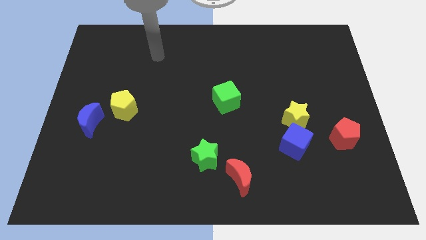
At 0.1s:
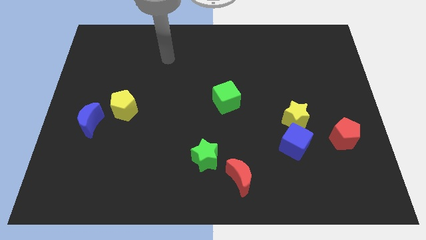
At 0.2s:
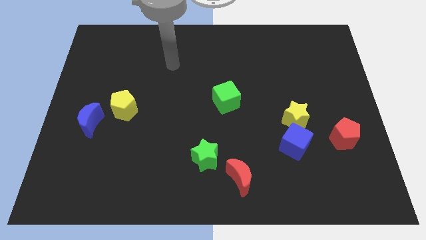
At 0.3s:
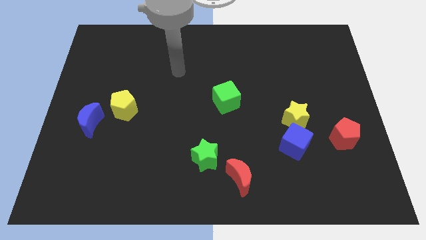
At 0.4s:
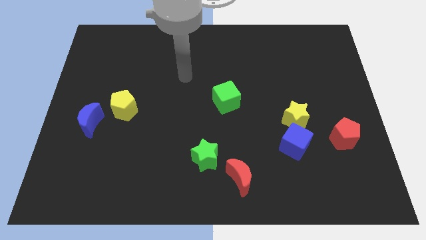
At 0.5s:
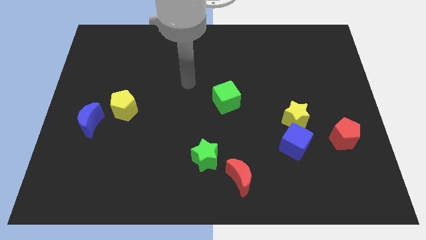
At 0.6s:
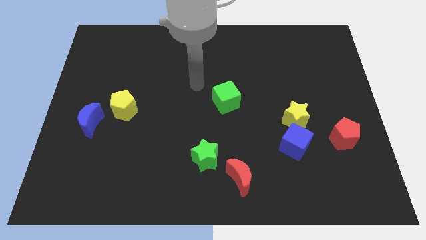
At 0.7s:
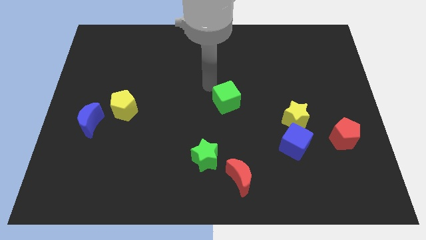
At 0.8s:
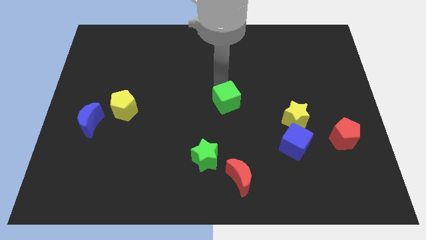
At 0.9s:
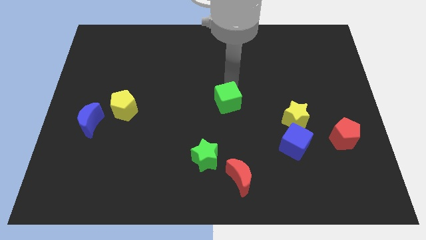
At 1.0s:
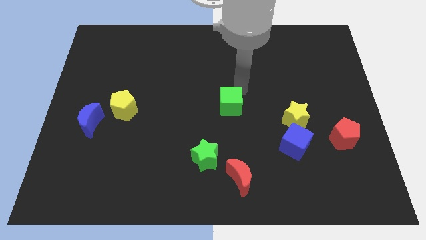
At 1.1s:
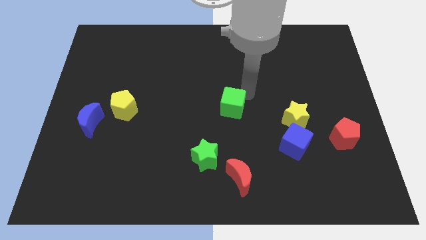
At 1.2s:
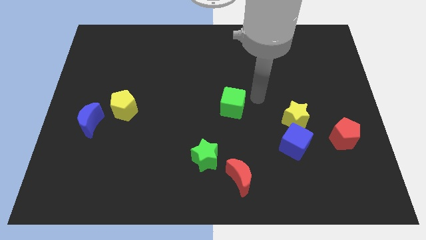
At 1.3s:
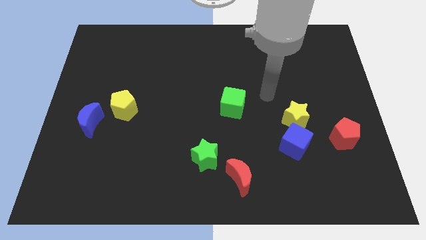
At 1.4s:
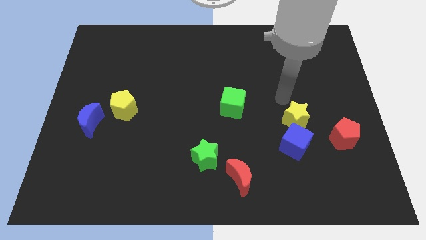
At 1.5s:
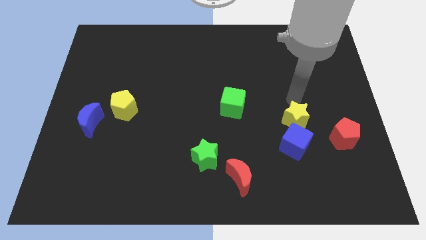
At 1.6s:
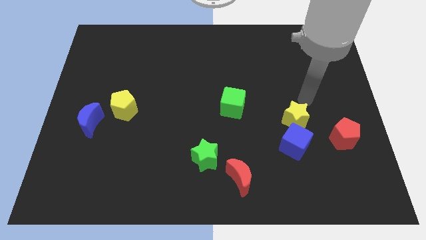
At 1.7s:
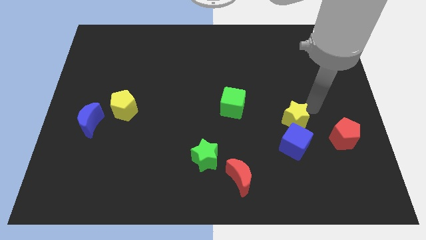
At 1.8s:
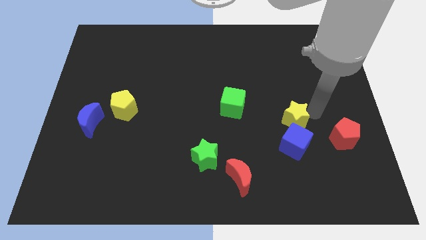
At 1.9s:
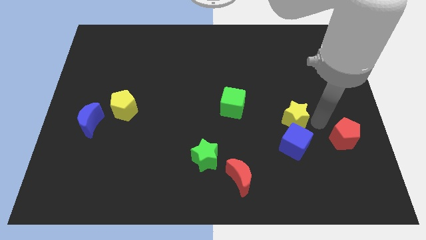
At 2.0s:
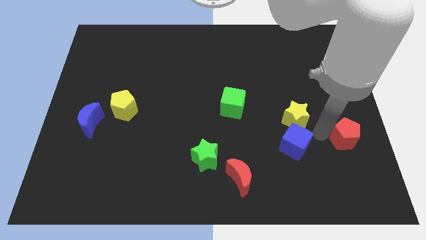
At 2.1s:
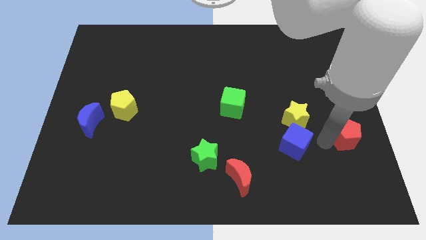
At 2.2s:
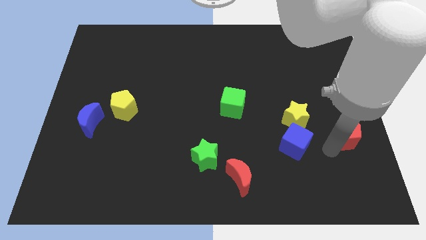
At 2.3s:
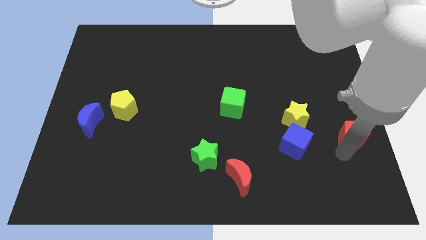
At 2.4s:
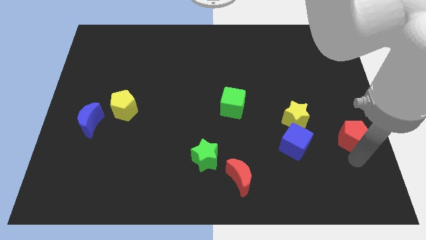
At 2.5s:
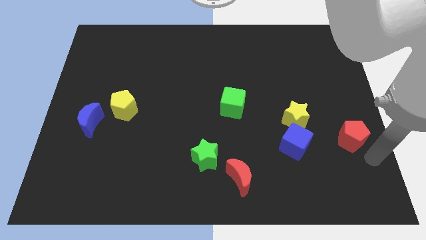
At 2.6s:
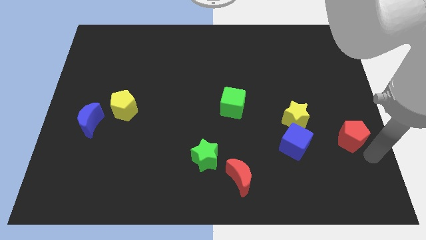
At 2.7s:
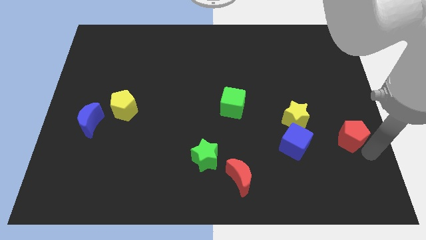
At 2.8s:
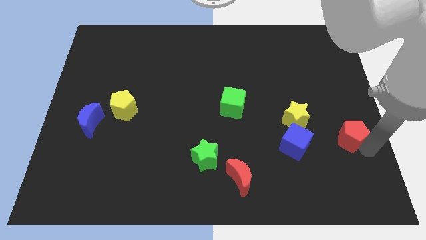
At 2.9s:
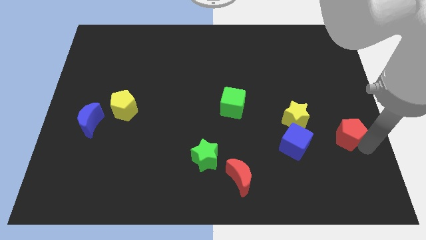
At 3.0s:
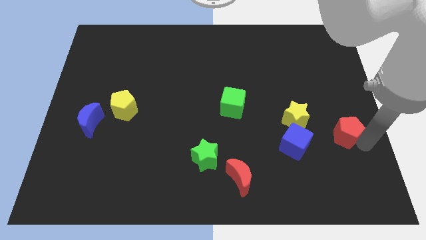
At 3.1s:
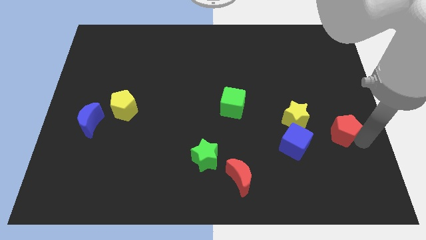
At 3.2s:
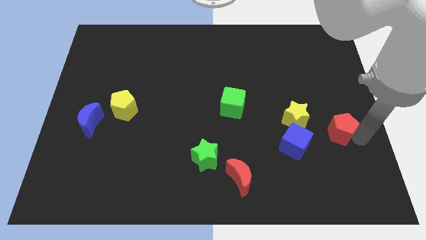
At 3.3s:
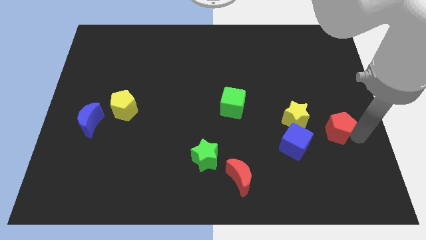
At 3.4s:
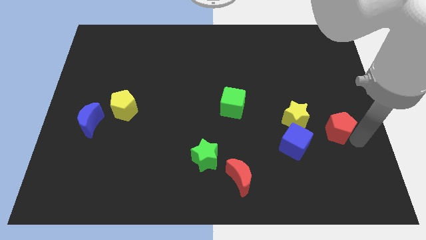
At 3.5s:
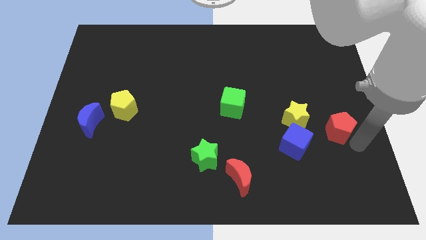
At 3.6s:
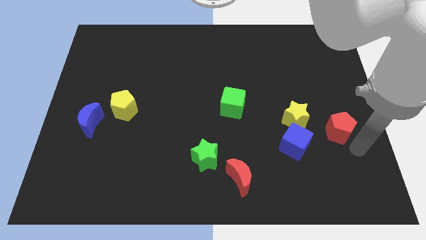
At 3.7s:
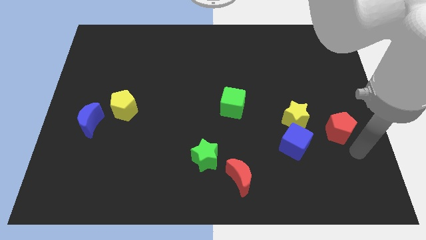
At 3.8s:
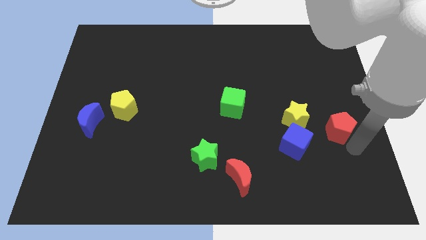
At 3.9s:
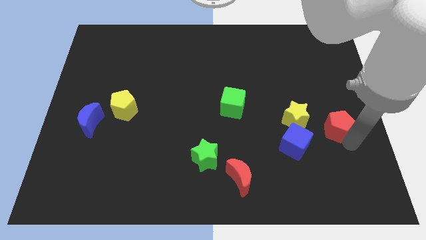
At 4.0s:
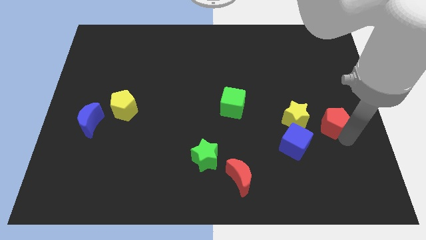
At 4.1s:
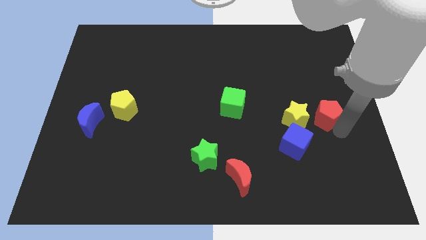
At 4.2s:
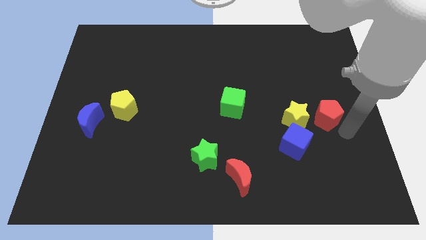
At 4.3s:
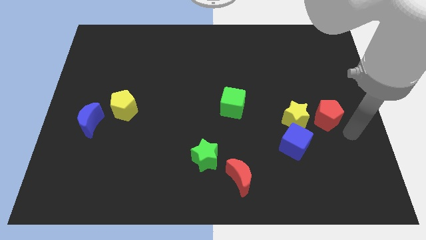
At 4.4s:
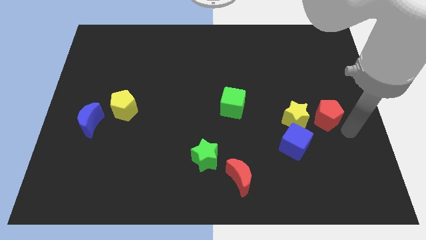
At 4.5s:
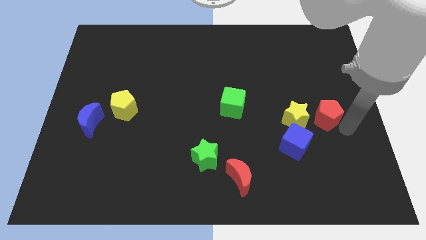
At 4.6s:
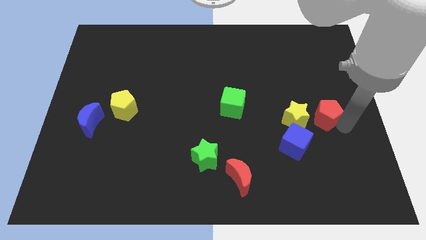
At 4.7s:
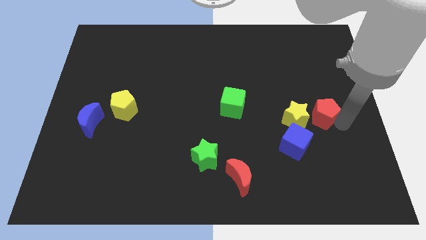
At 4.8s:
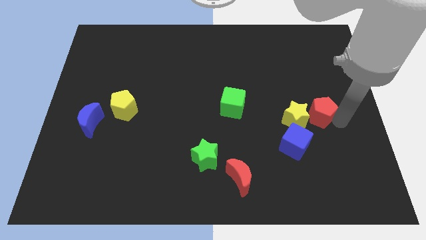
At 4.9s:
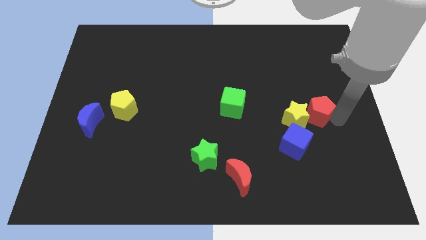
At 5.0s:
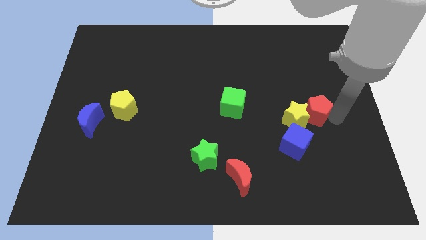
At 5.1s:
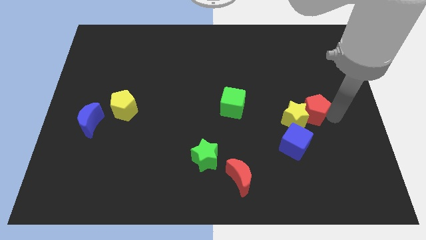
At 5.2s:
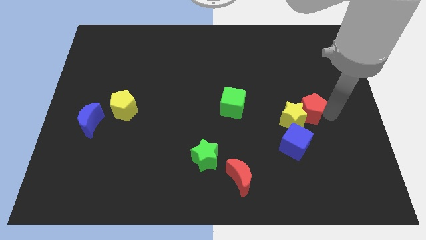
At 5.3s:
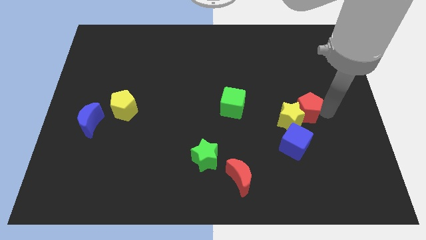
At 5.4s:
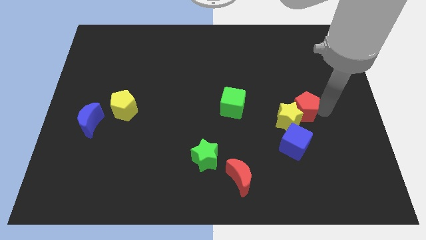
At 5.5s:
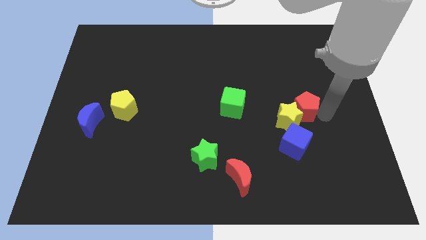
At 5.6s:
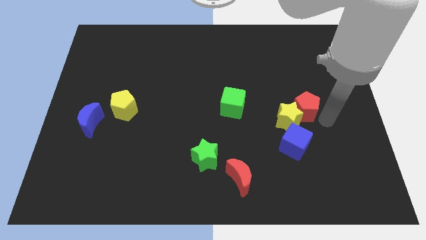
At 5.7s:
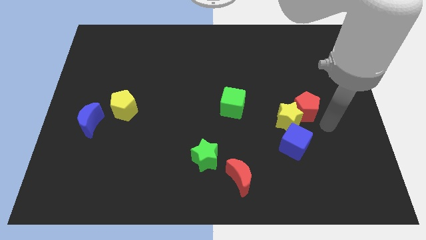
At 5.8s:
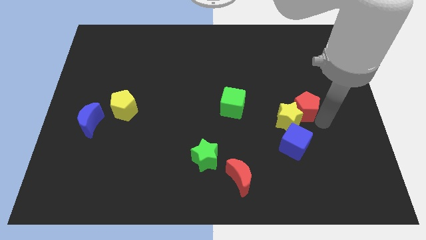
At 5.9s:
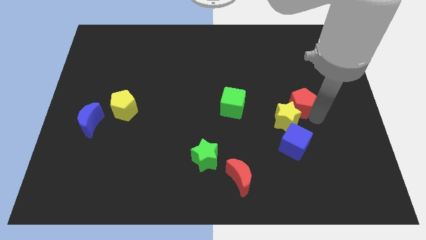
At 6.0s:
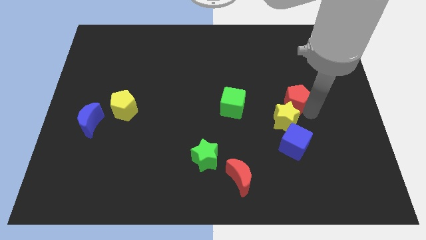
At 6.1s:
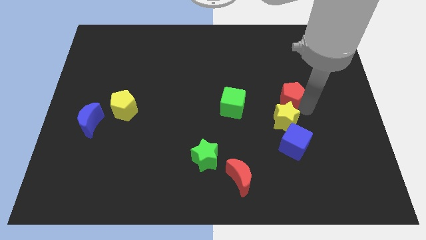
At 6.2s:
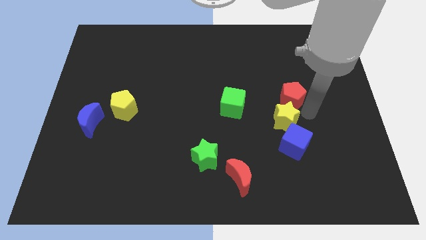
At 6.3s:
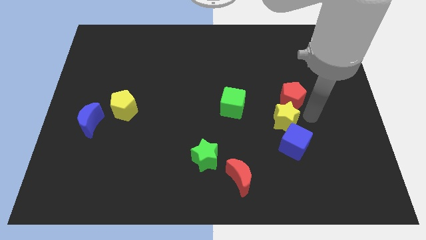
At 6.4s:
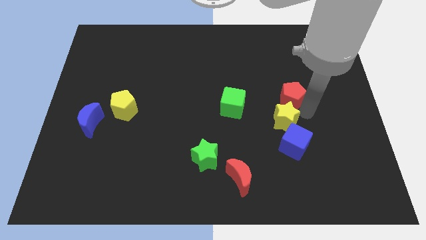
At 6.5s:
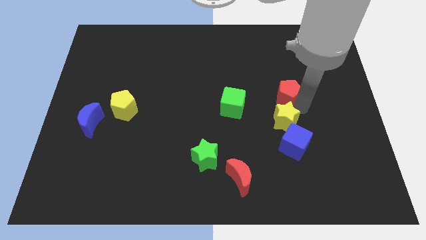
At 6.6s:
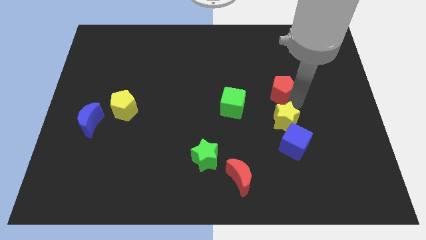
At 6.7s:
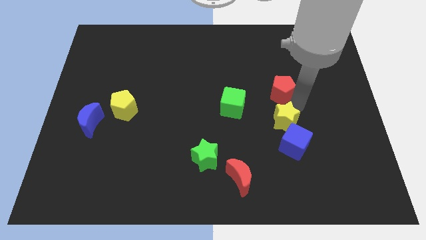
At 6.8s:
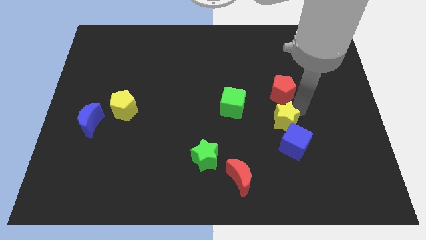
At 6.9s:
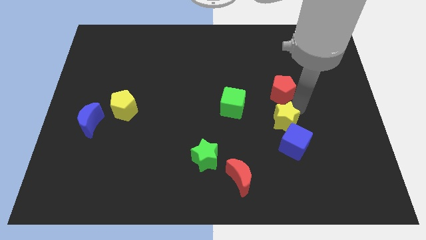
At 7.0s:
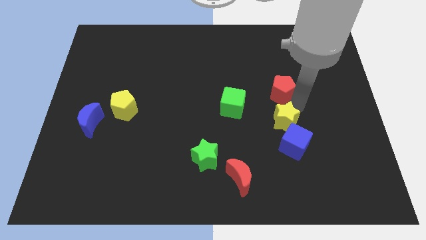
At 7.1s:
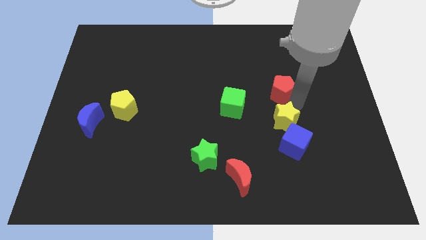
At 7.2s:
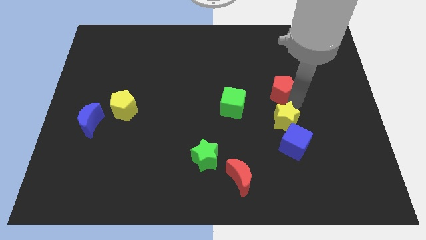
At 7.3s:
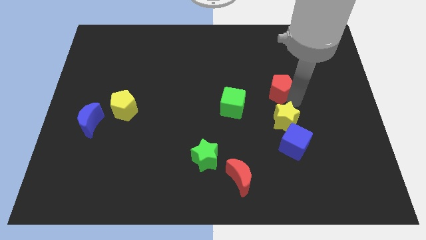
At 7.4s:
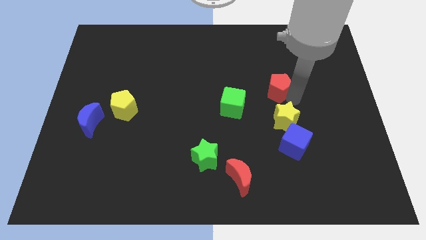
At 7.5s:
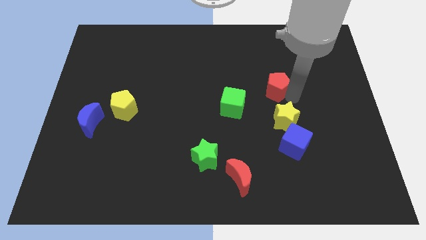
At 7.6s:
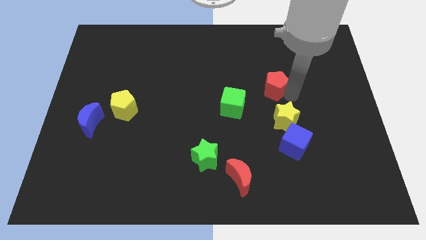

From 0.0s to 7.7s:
slide the red pentagon upwards and left

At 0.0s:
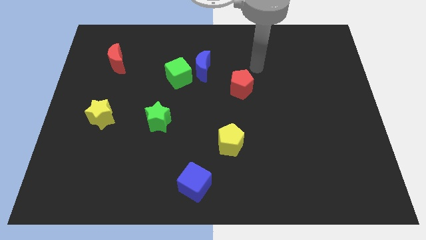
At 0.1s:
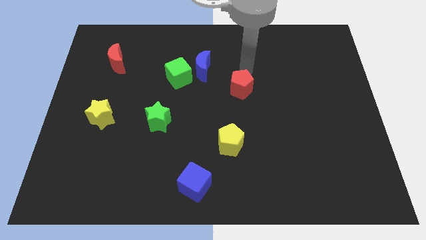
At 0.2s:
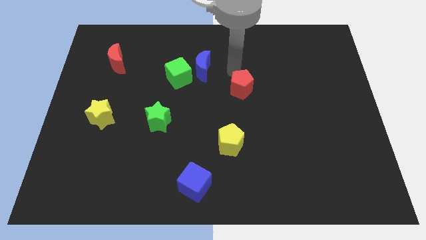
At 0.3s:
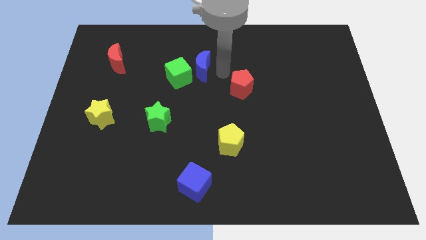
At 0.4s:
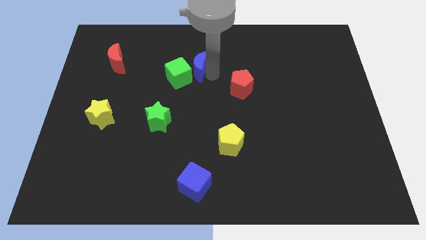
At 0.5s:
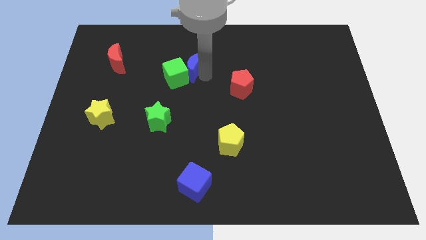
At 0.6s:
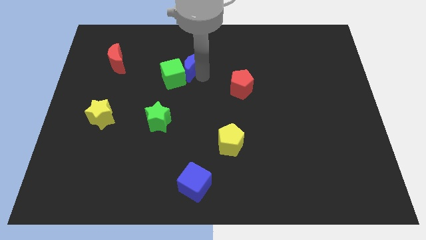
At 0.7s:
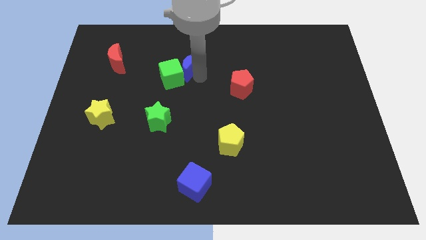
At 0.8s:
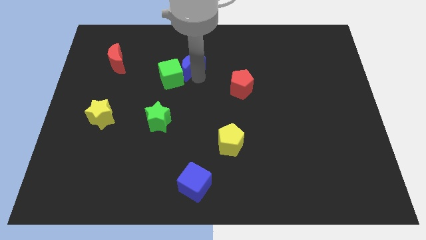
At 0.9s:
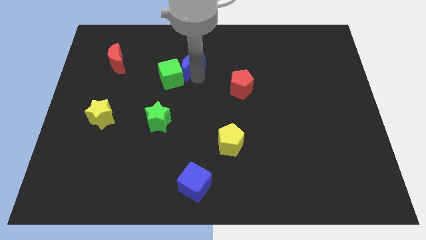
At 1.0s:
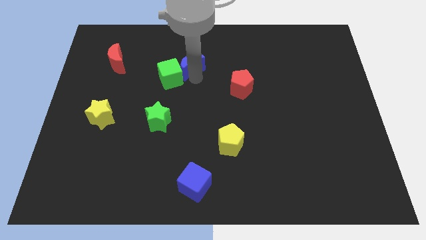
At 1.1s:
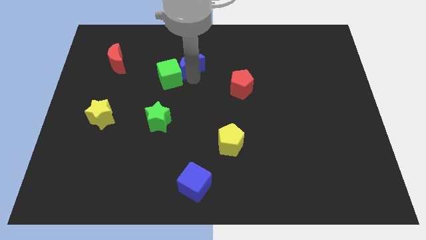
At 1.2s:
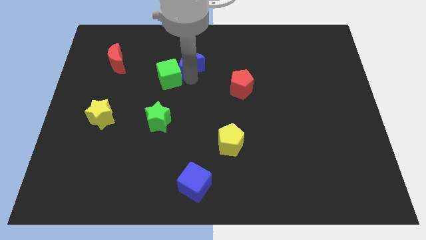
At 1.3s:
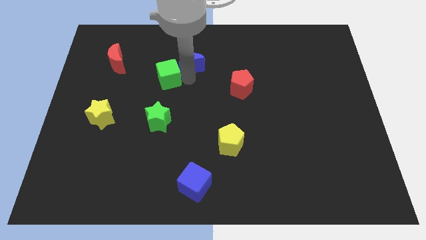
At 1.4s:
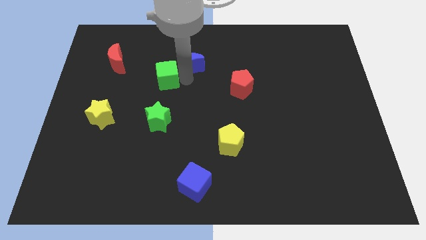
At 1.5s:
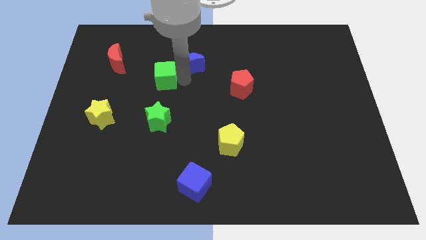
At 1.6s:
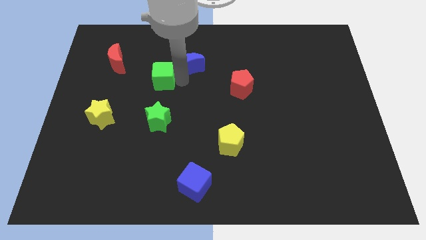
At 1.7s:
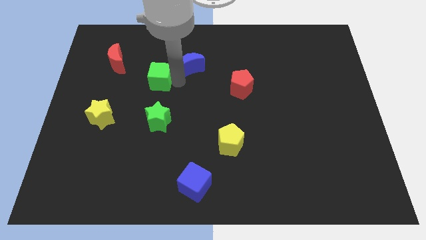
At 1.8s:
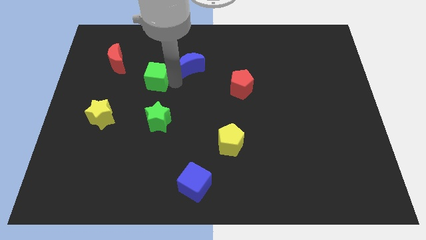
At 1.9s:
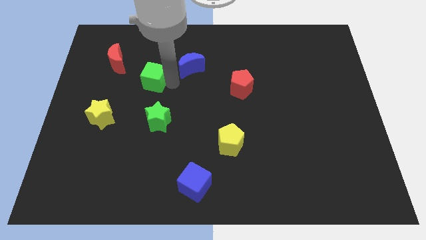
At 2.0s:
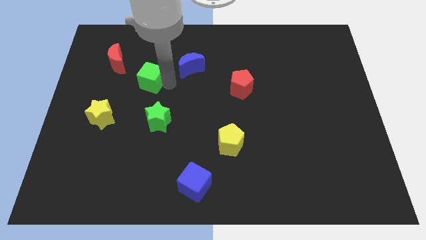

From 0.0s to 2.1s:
slide the green cube a bit to the left
